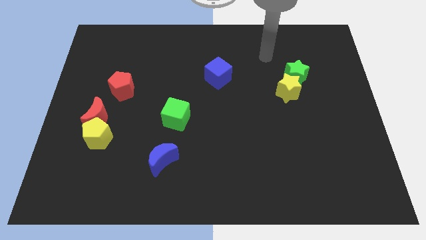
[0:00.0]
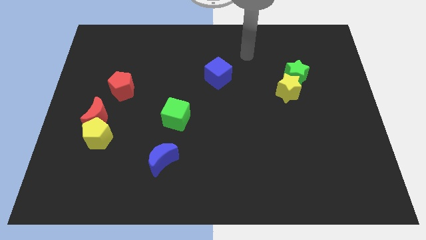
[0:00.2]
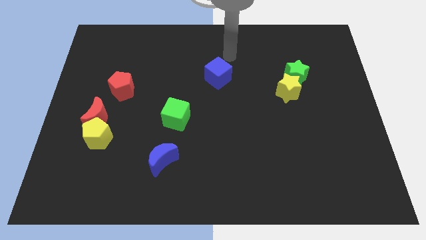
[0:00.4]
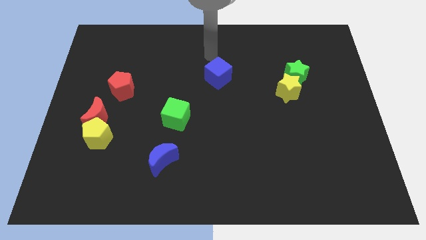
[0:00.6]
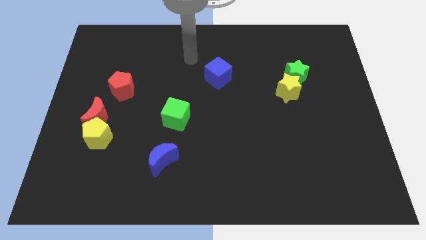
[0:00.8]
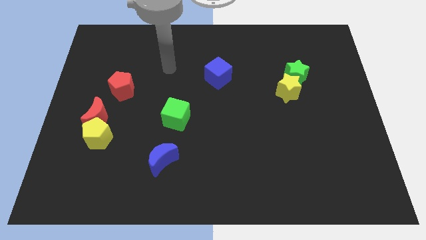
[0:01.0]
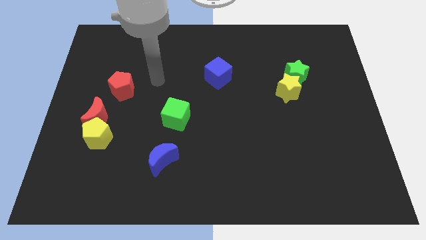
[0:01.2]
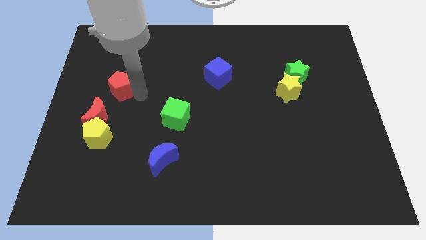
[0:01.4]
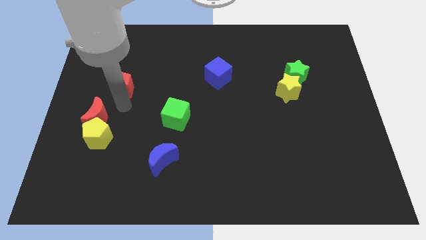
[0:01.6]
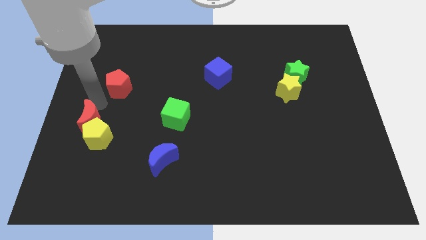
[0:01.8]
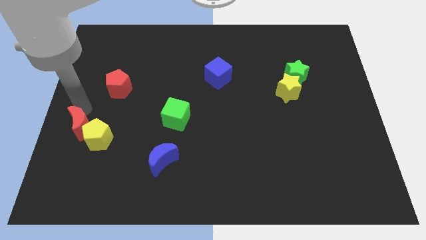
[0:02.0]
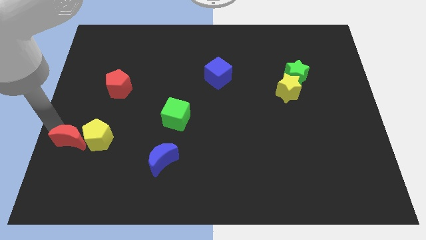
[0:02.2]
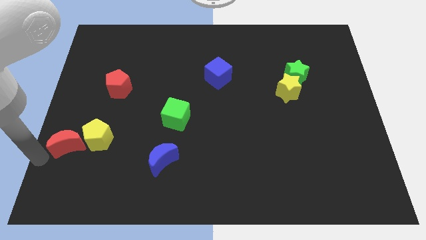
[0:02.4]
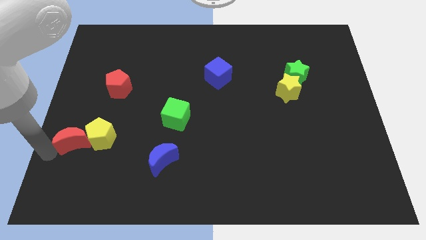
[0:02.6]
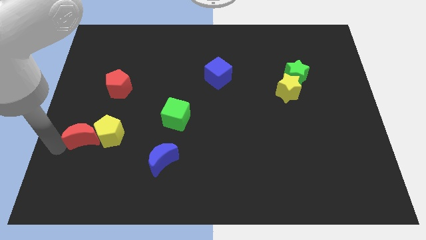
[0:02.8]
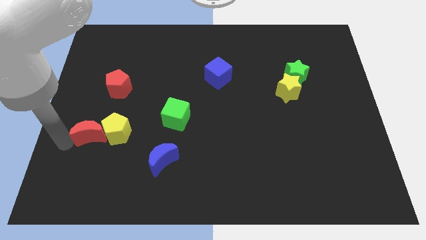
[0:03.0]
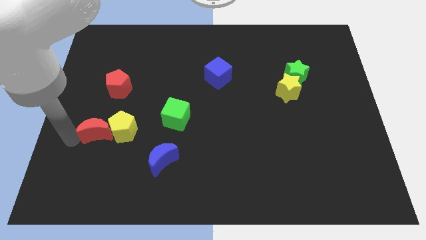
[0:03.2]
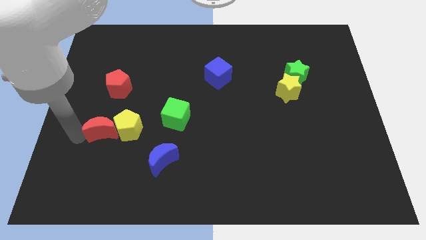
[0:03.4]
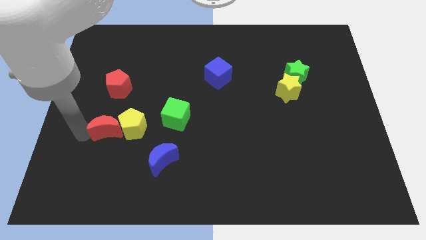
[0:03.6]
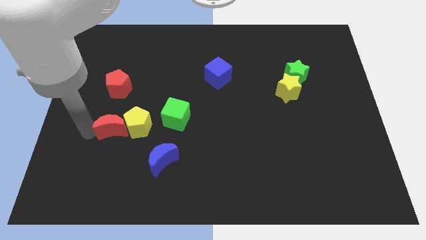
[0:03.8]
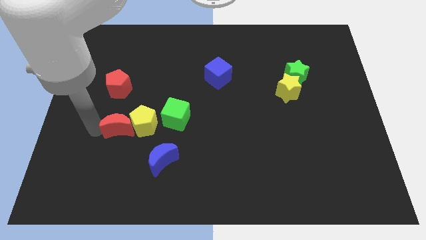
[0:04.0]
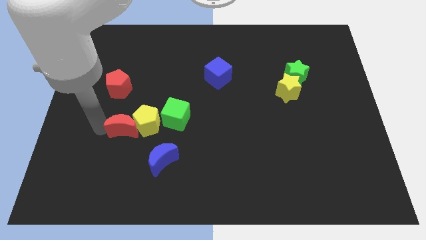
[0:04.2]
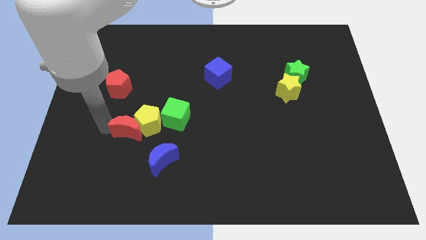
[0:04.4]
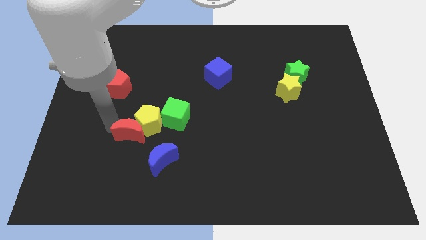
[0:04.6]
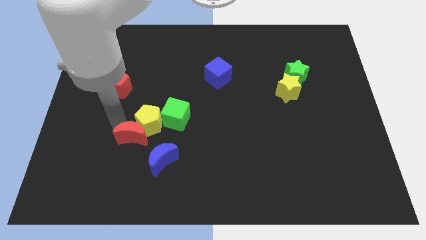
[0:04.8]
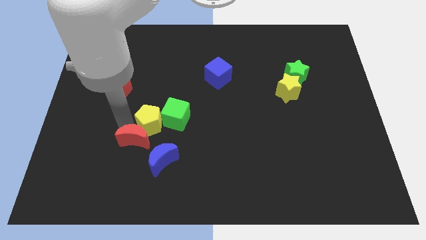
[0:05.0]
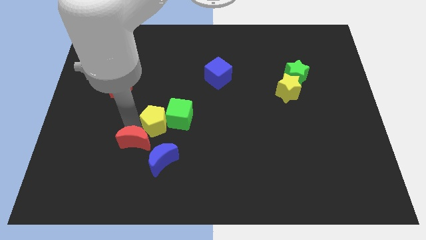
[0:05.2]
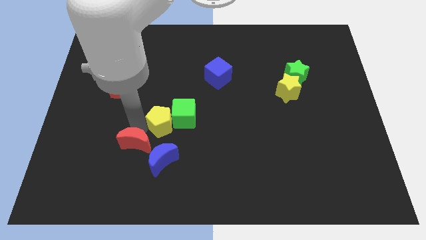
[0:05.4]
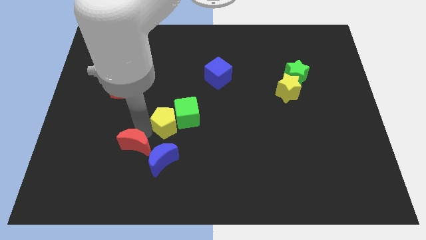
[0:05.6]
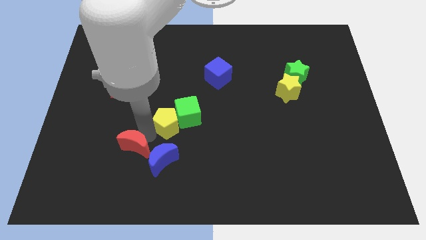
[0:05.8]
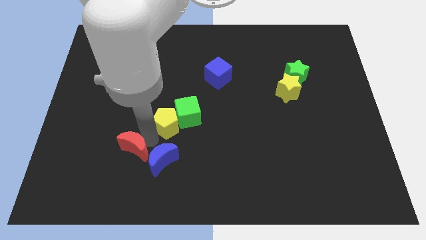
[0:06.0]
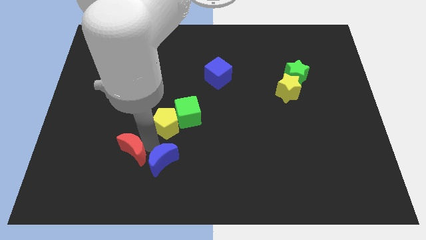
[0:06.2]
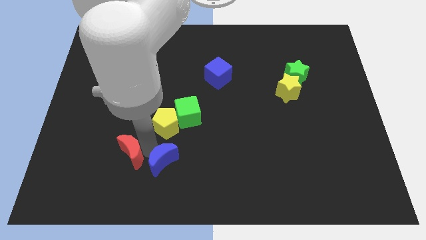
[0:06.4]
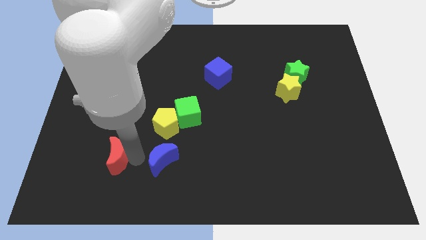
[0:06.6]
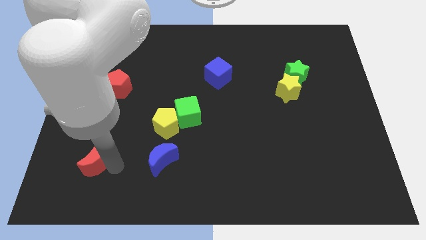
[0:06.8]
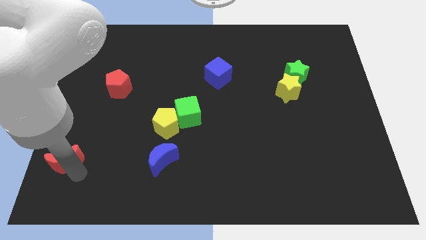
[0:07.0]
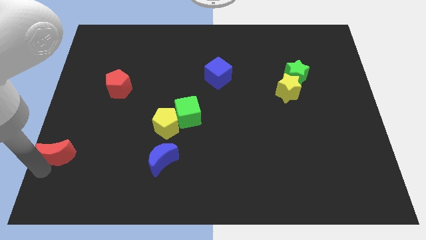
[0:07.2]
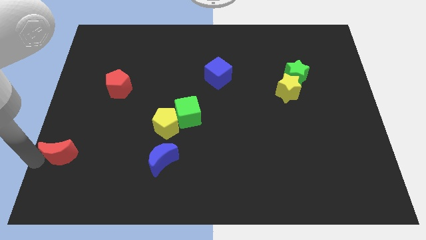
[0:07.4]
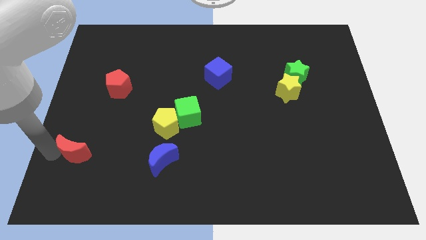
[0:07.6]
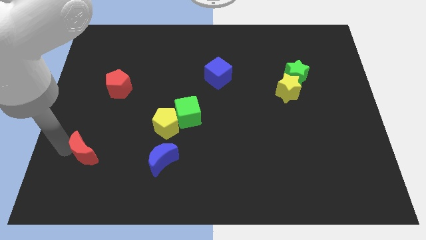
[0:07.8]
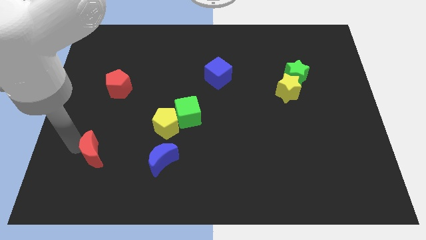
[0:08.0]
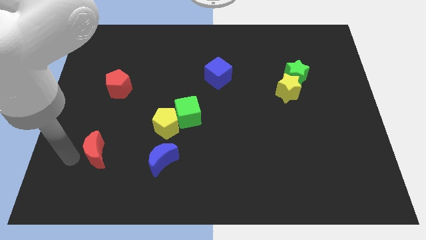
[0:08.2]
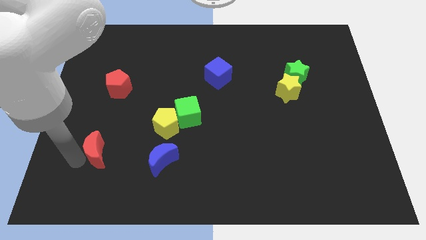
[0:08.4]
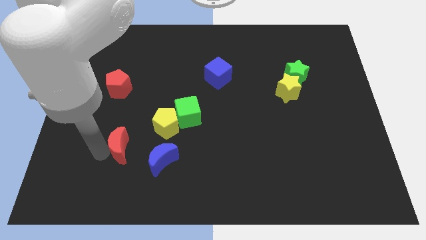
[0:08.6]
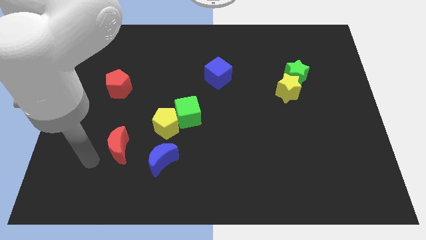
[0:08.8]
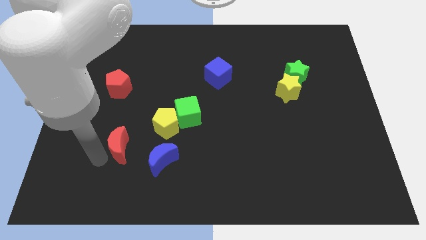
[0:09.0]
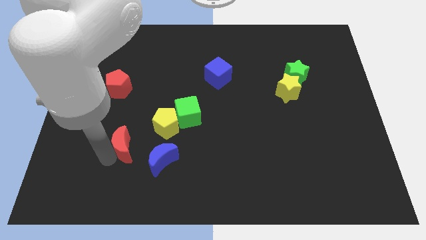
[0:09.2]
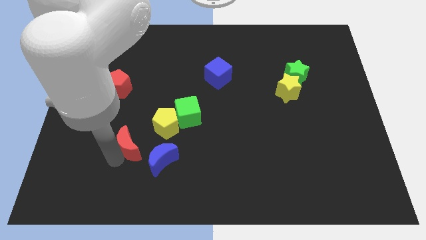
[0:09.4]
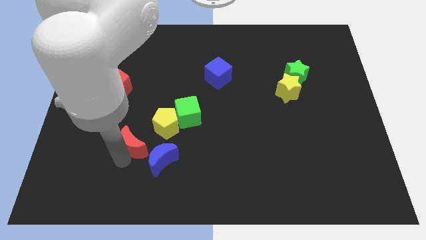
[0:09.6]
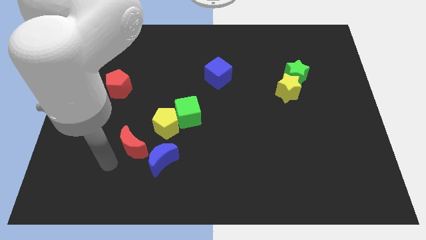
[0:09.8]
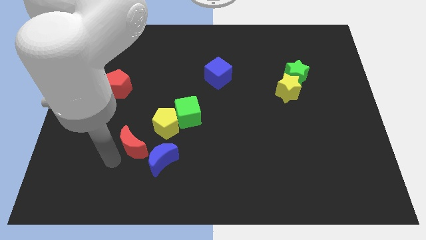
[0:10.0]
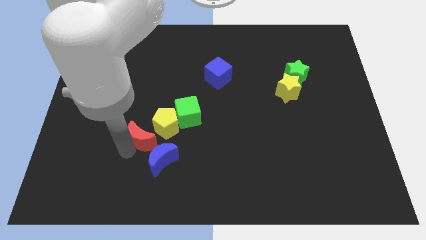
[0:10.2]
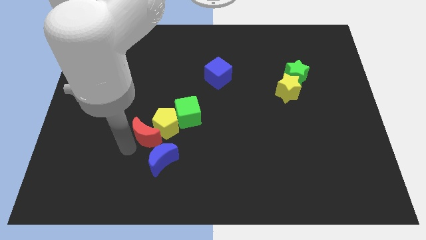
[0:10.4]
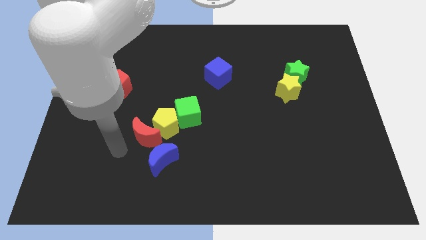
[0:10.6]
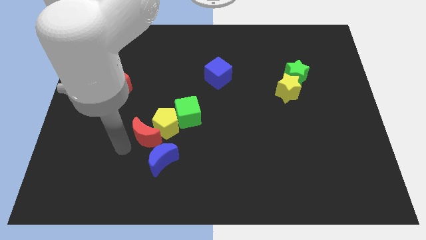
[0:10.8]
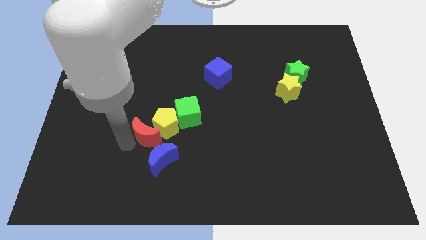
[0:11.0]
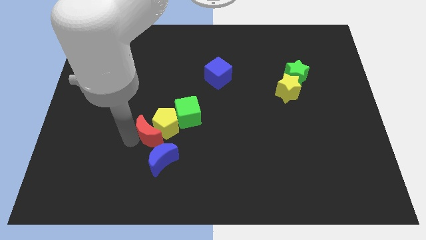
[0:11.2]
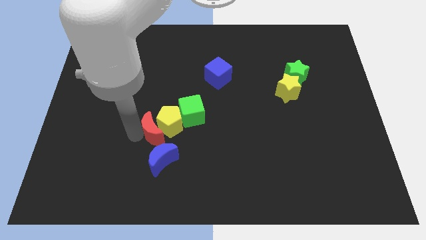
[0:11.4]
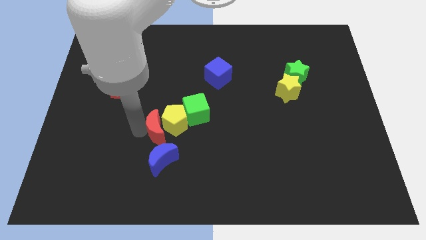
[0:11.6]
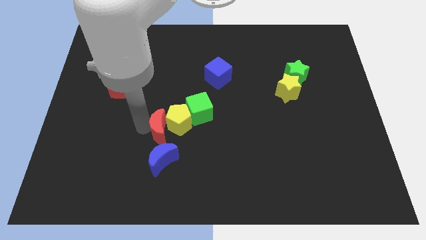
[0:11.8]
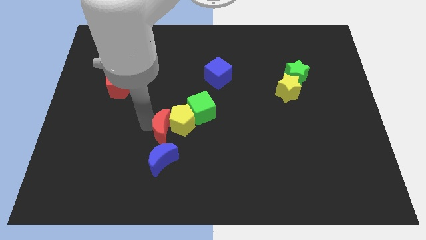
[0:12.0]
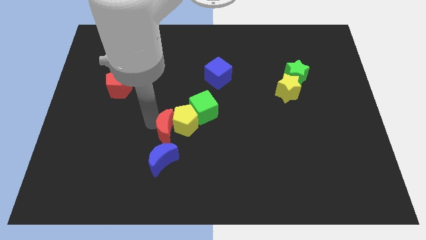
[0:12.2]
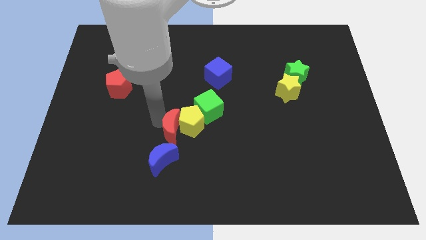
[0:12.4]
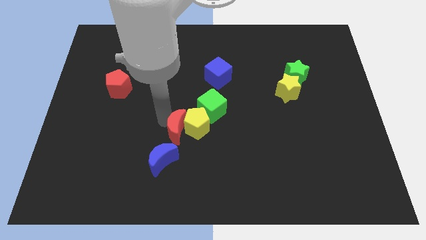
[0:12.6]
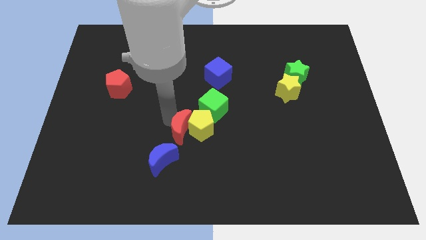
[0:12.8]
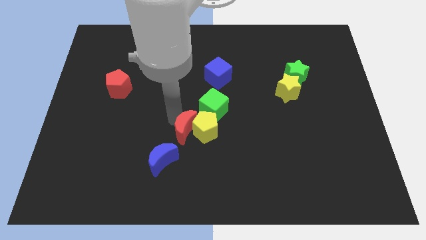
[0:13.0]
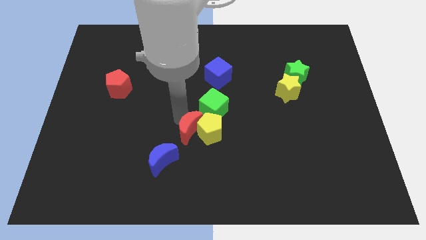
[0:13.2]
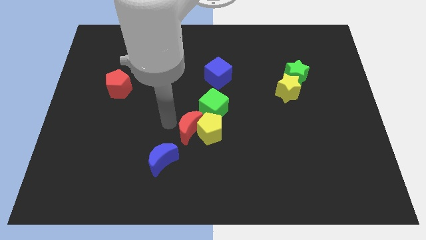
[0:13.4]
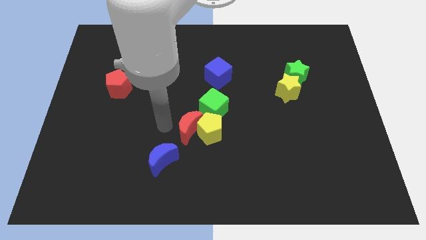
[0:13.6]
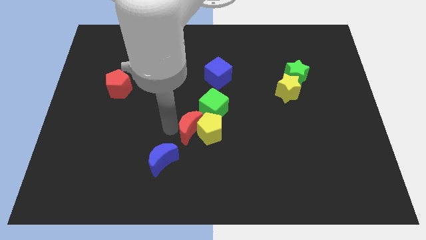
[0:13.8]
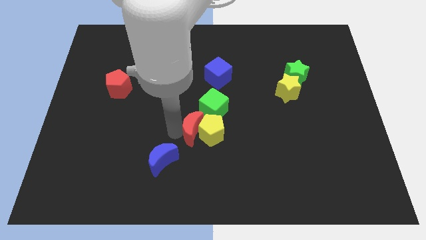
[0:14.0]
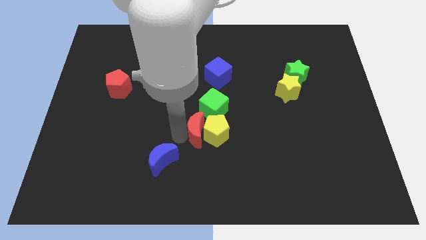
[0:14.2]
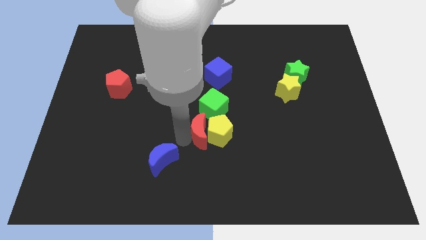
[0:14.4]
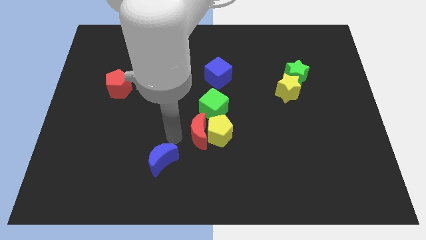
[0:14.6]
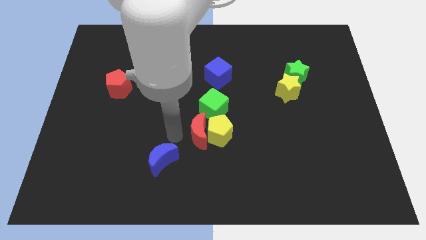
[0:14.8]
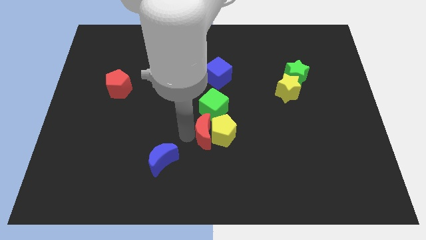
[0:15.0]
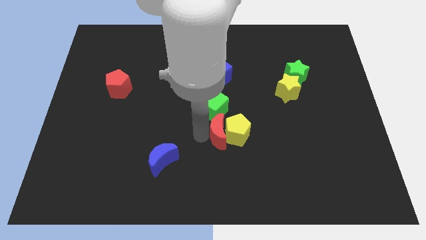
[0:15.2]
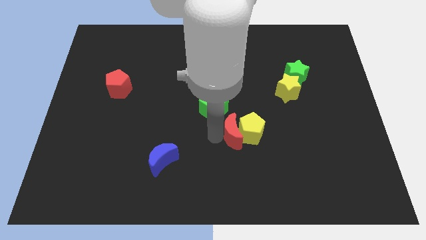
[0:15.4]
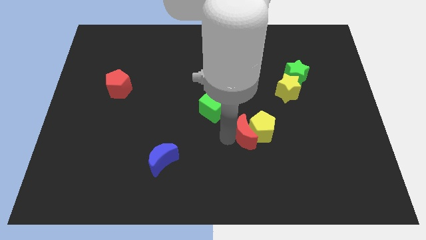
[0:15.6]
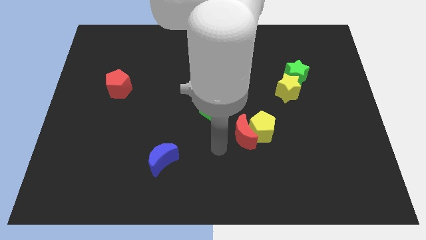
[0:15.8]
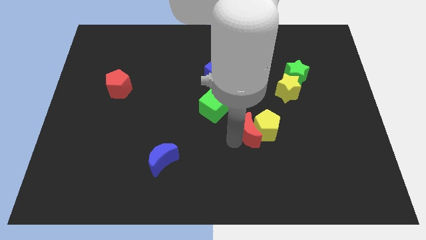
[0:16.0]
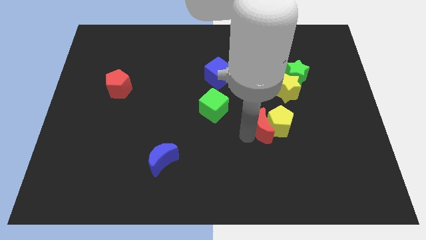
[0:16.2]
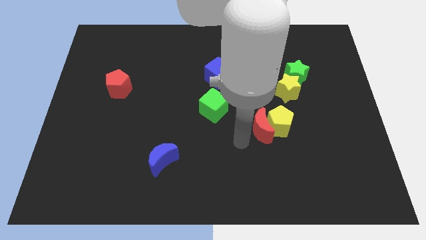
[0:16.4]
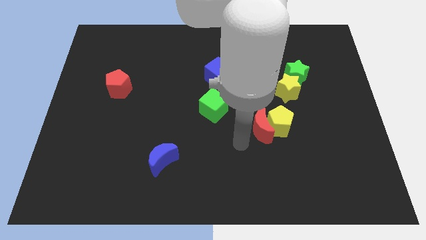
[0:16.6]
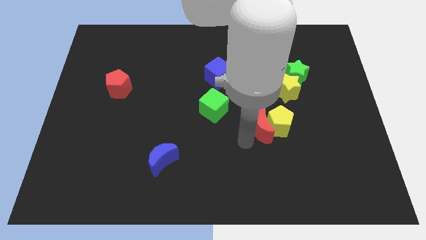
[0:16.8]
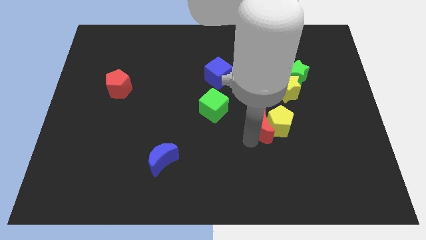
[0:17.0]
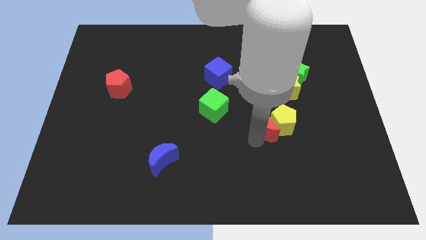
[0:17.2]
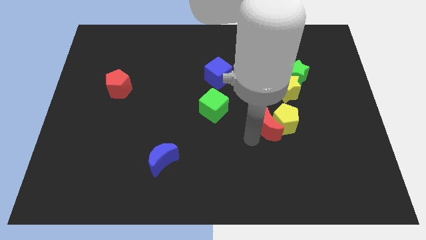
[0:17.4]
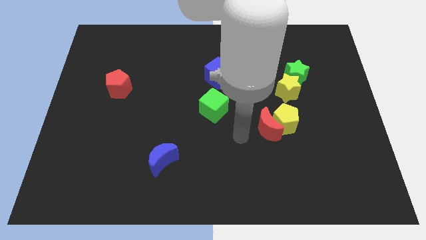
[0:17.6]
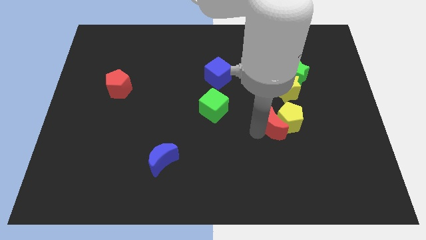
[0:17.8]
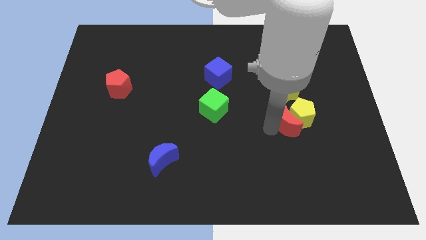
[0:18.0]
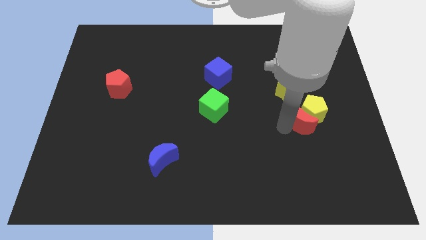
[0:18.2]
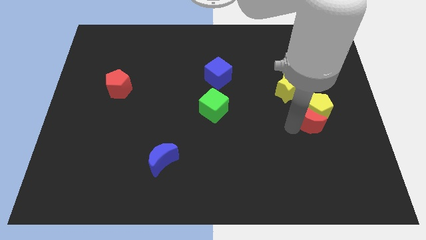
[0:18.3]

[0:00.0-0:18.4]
push the red moon to the bottom right of the yellow star
